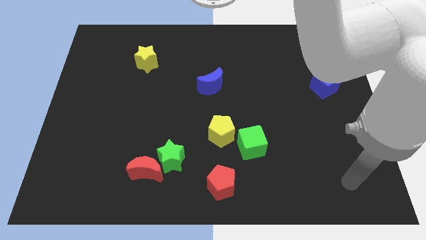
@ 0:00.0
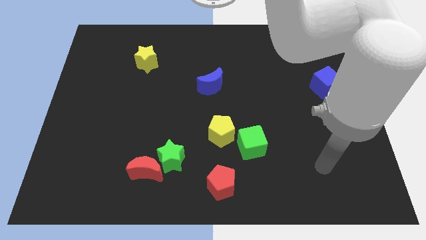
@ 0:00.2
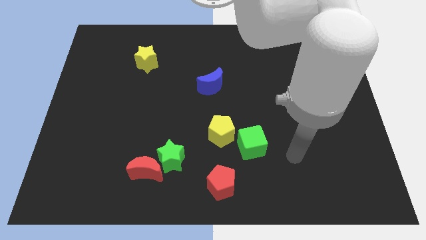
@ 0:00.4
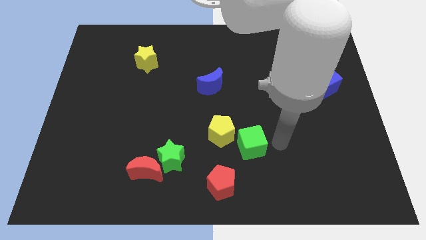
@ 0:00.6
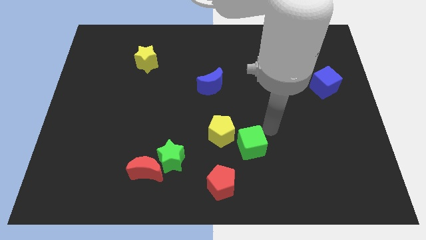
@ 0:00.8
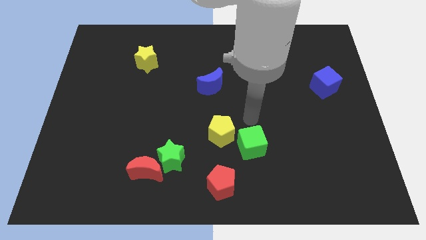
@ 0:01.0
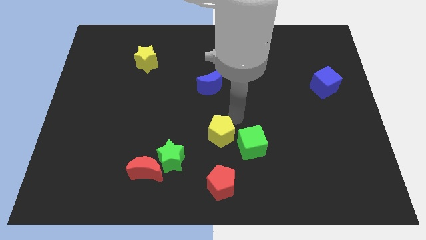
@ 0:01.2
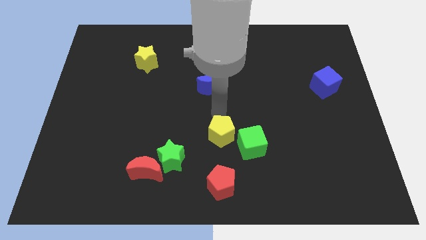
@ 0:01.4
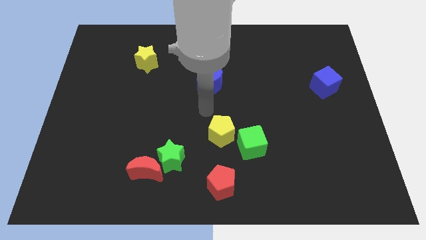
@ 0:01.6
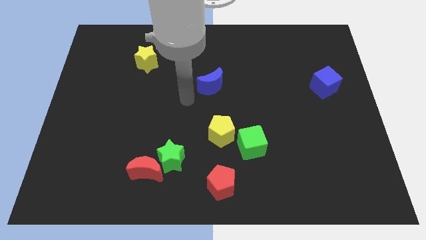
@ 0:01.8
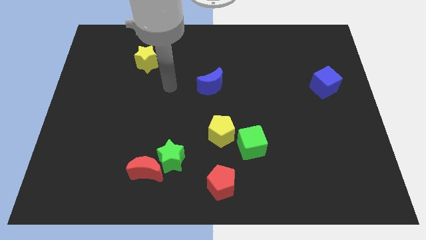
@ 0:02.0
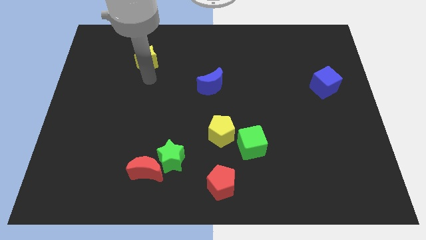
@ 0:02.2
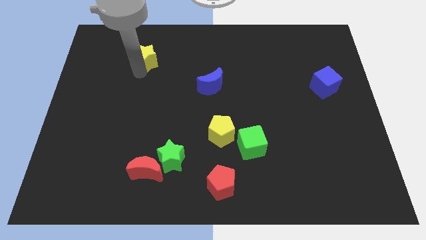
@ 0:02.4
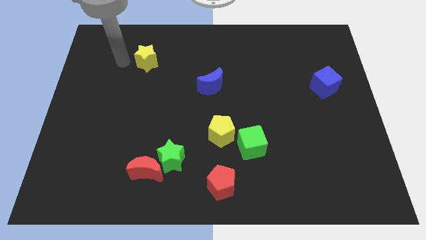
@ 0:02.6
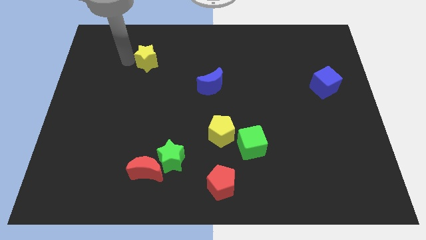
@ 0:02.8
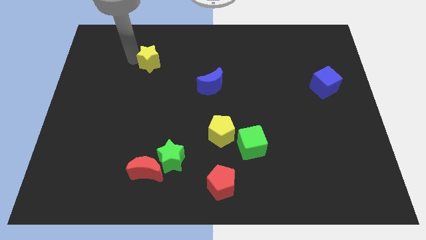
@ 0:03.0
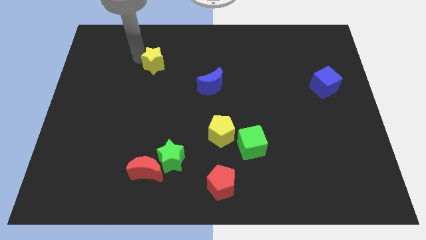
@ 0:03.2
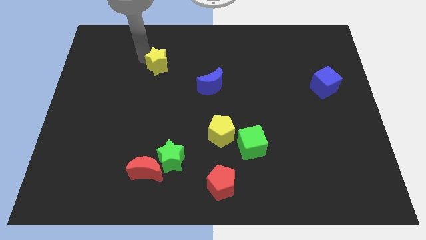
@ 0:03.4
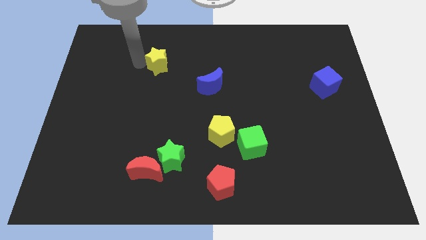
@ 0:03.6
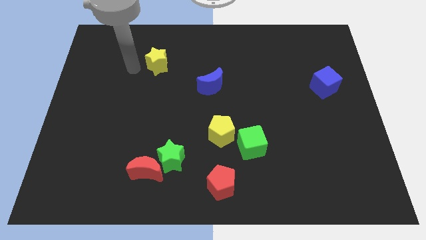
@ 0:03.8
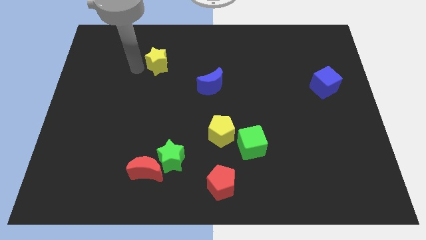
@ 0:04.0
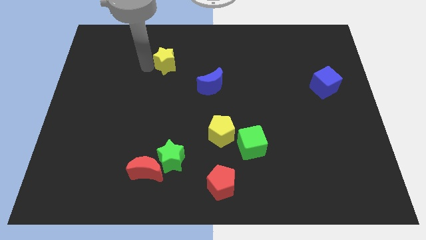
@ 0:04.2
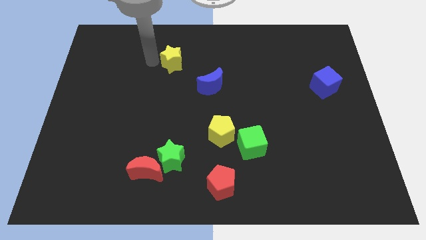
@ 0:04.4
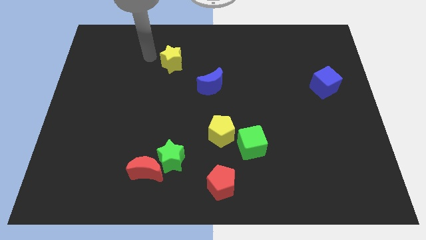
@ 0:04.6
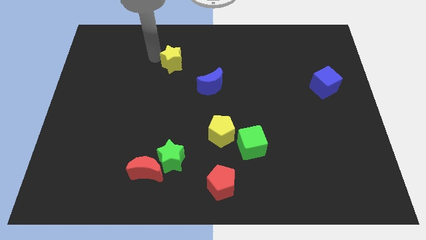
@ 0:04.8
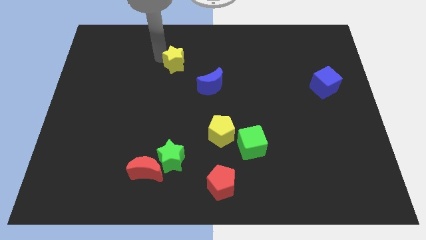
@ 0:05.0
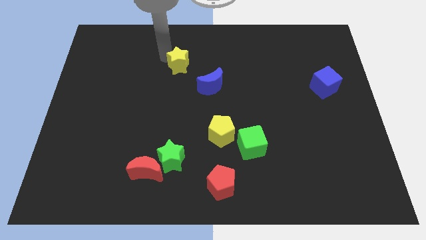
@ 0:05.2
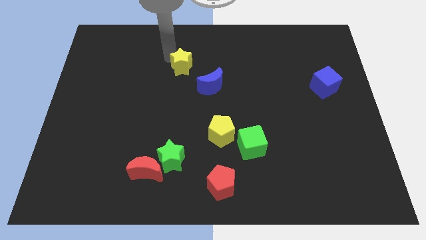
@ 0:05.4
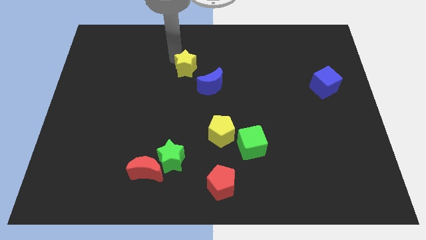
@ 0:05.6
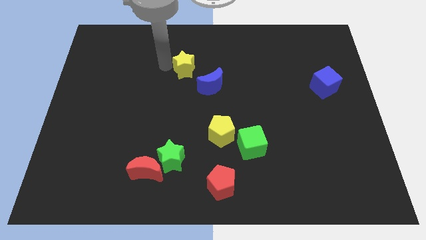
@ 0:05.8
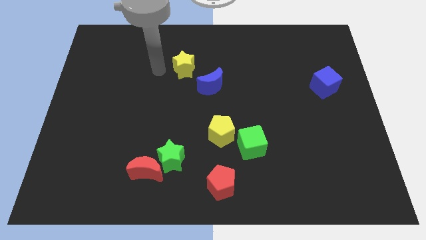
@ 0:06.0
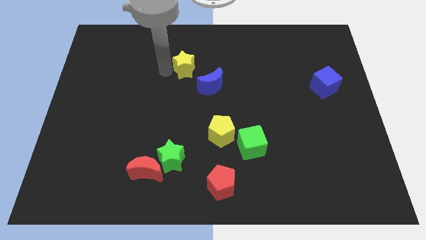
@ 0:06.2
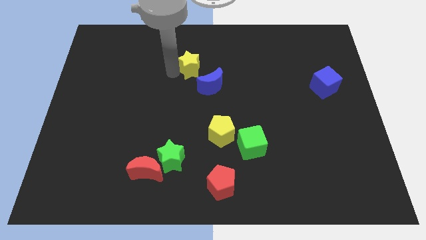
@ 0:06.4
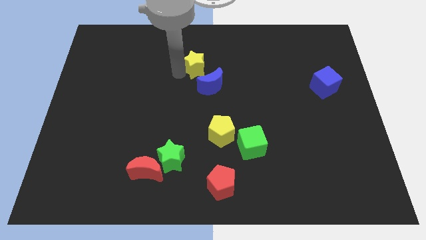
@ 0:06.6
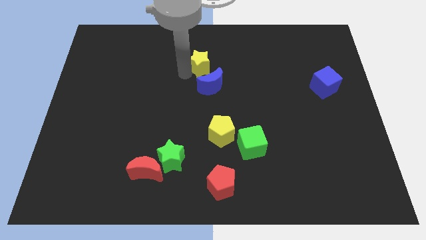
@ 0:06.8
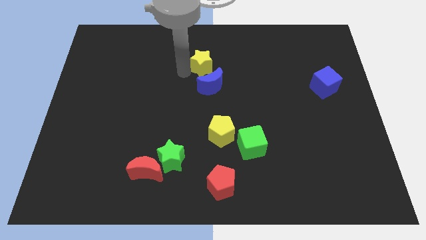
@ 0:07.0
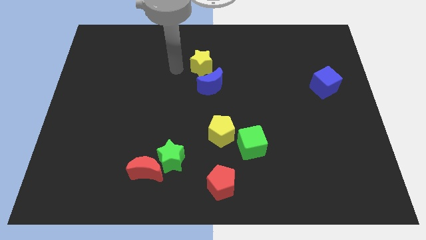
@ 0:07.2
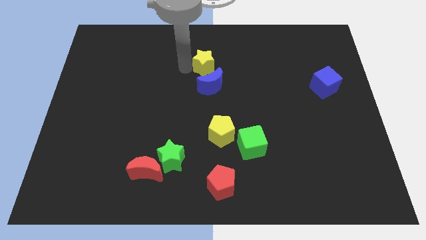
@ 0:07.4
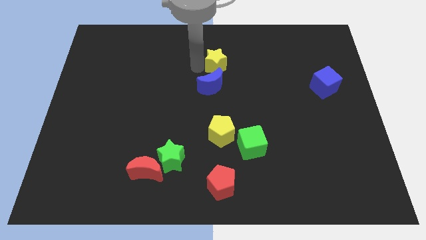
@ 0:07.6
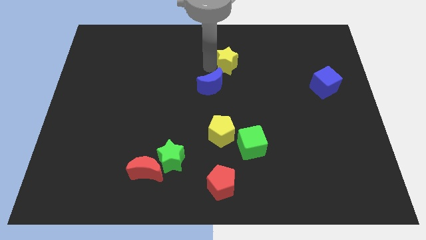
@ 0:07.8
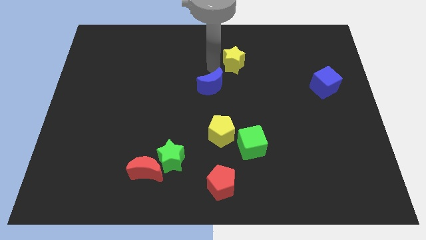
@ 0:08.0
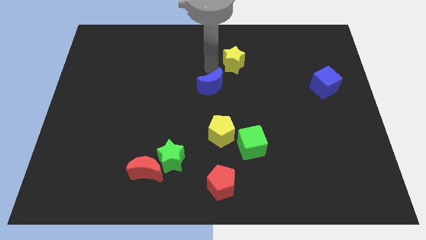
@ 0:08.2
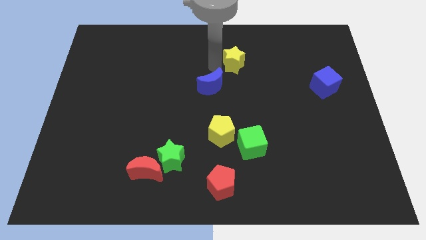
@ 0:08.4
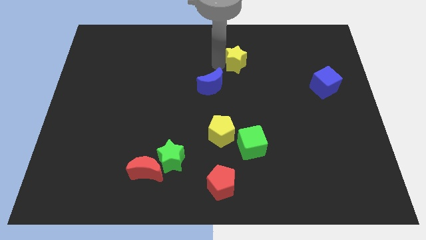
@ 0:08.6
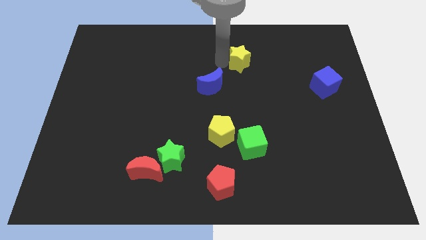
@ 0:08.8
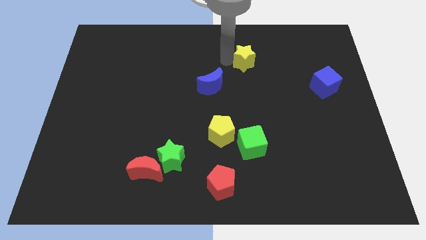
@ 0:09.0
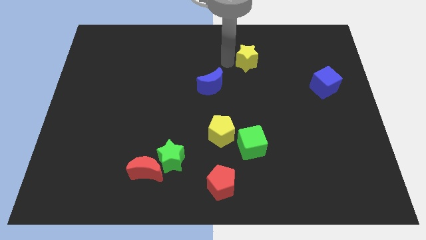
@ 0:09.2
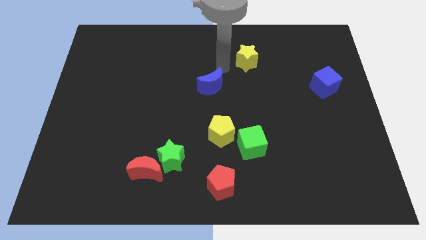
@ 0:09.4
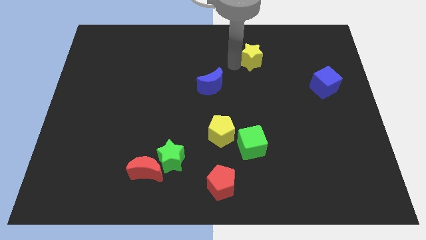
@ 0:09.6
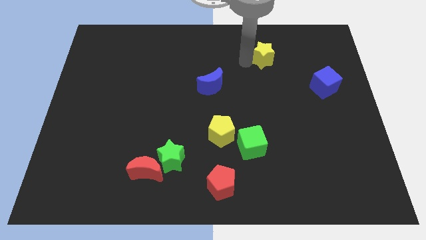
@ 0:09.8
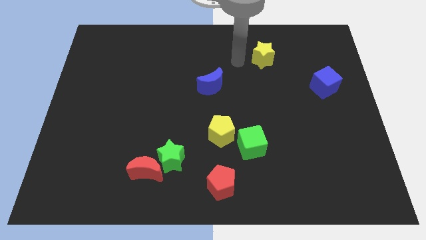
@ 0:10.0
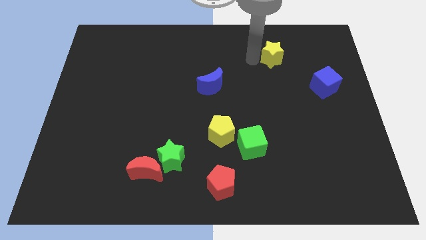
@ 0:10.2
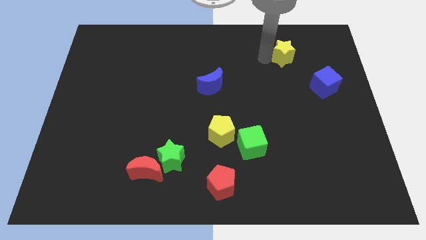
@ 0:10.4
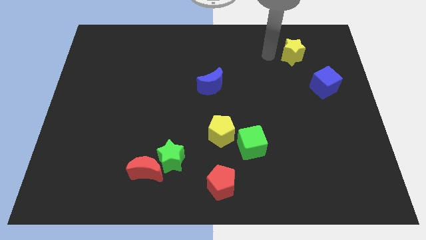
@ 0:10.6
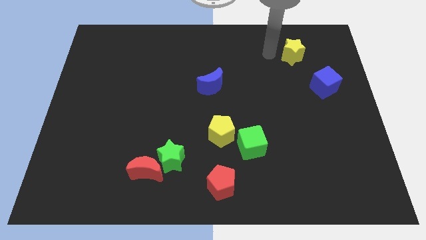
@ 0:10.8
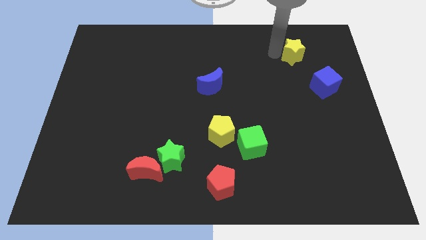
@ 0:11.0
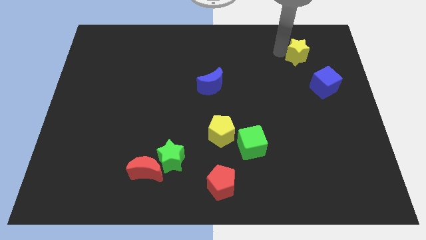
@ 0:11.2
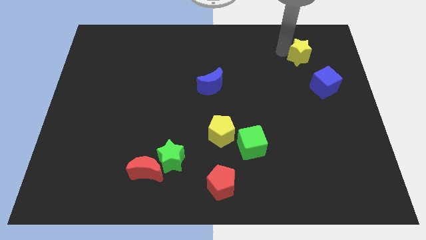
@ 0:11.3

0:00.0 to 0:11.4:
slide the yellow star to the top side of the blue cube

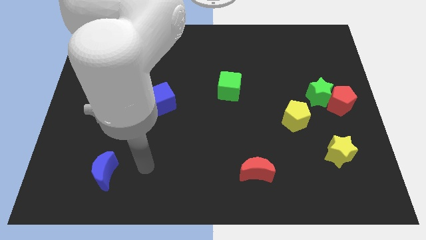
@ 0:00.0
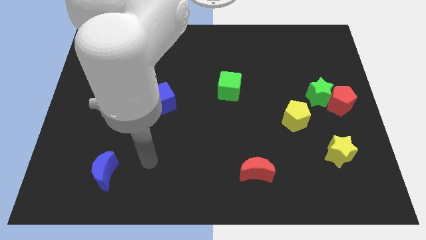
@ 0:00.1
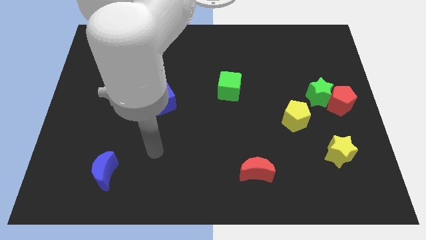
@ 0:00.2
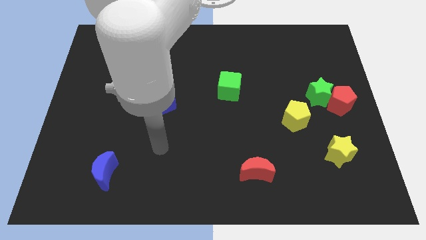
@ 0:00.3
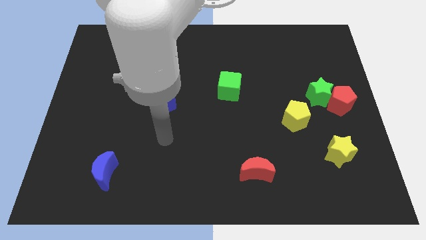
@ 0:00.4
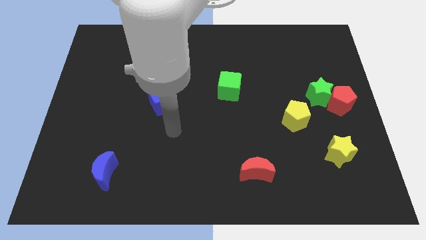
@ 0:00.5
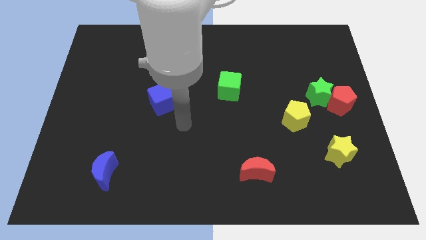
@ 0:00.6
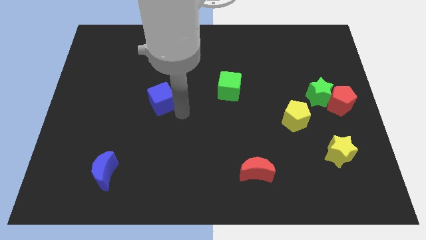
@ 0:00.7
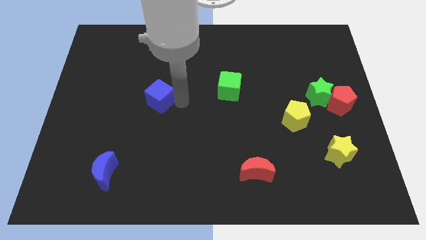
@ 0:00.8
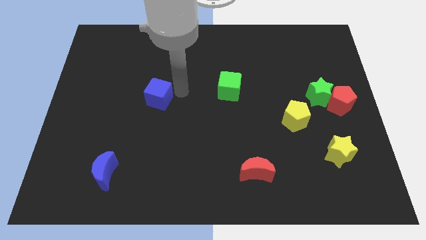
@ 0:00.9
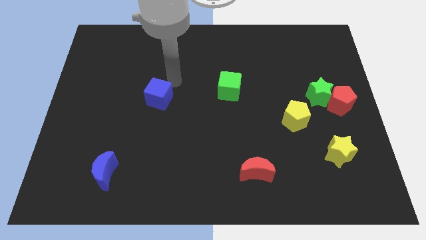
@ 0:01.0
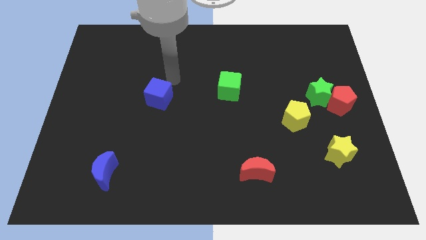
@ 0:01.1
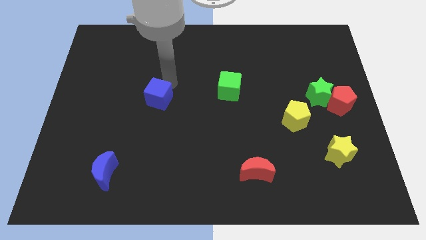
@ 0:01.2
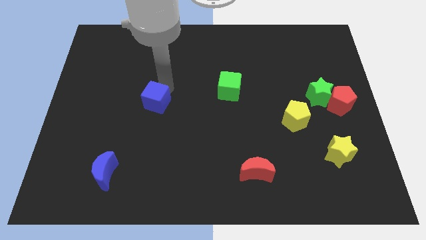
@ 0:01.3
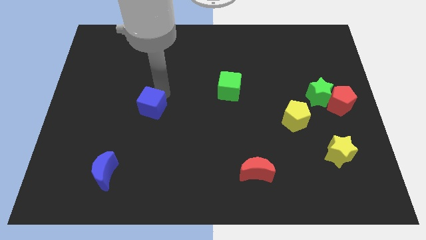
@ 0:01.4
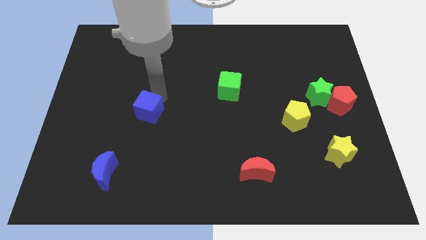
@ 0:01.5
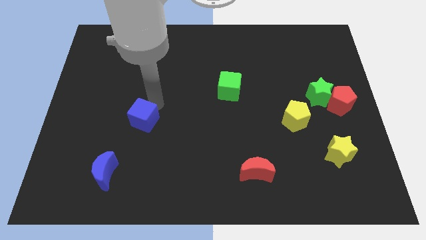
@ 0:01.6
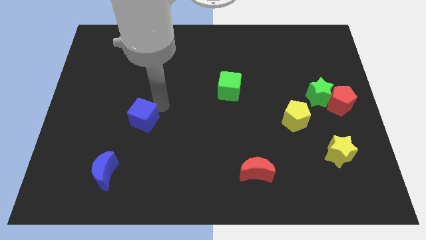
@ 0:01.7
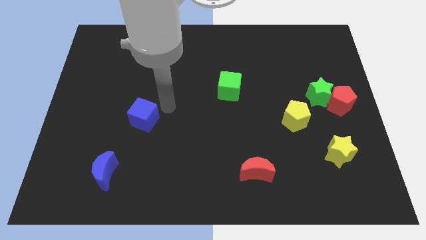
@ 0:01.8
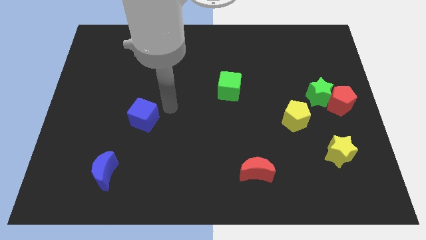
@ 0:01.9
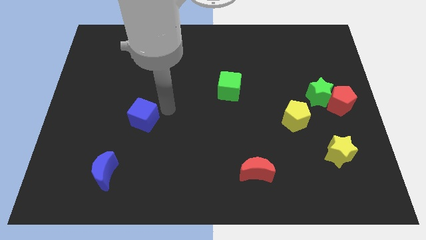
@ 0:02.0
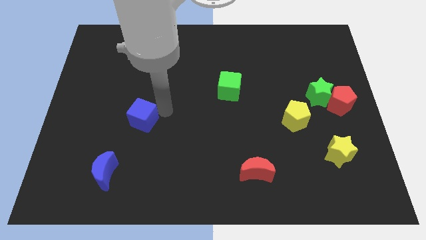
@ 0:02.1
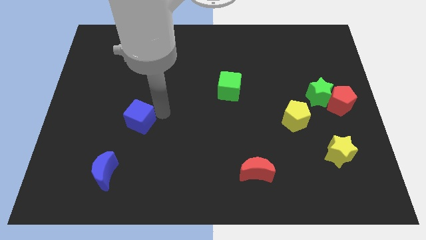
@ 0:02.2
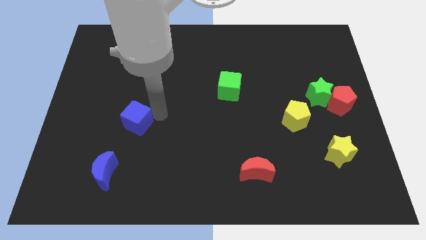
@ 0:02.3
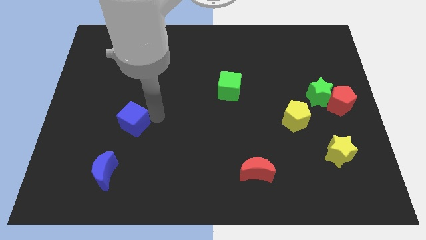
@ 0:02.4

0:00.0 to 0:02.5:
slide the blue cube to the top of the blue moon
